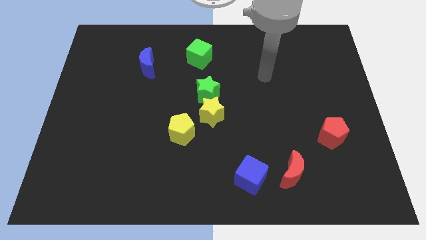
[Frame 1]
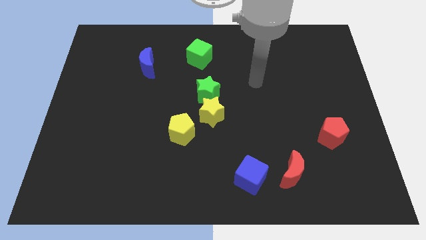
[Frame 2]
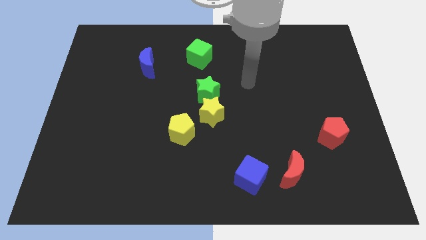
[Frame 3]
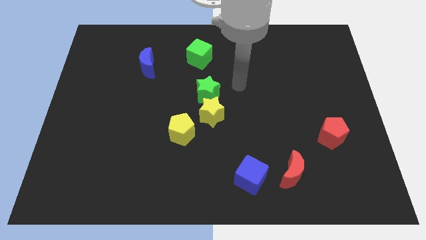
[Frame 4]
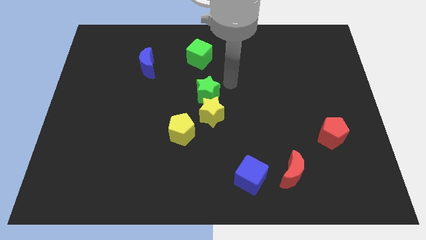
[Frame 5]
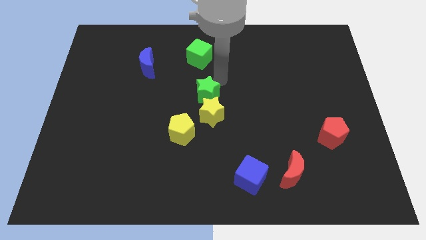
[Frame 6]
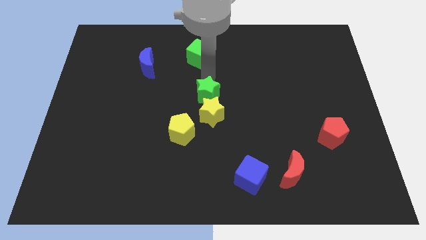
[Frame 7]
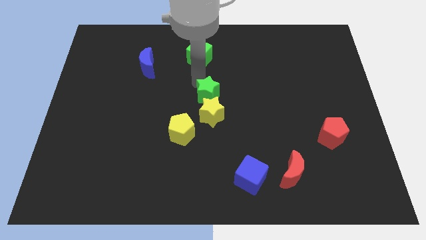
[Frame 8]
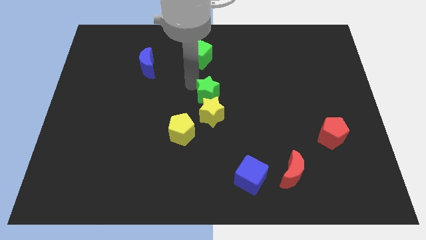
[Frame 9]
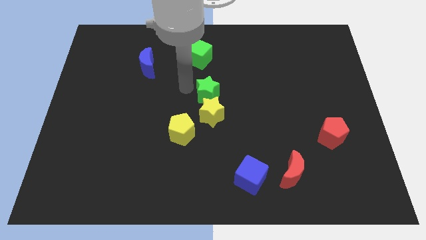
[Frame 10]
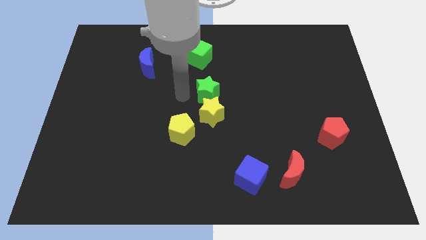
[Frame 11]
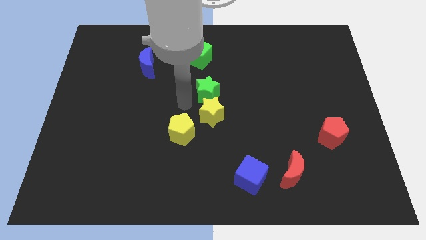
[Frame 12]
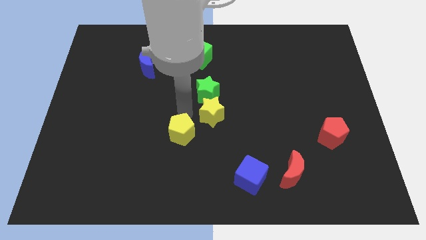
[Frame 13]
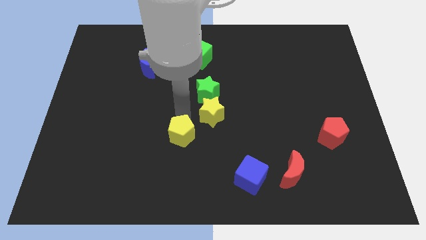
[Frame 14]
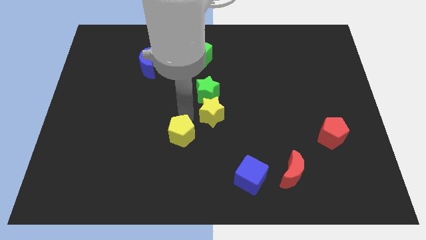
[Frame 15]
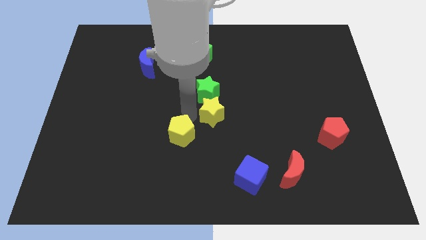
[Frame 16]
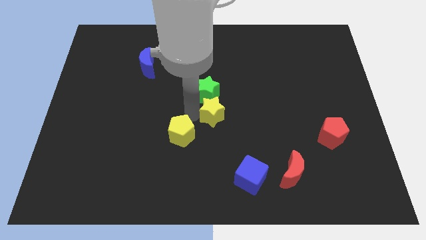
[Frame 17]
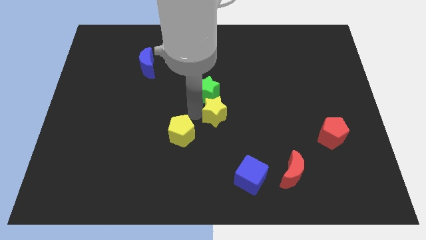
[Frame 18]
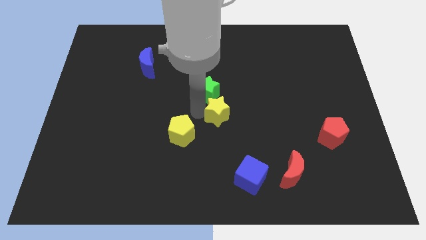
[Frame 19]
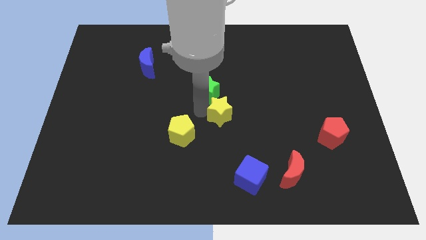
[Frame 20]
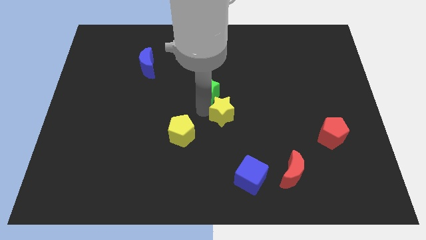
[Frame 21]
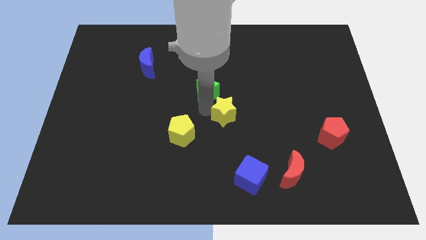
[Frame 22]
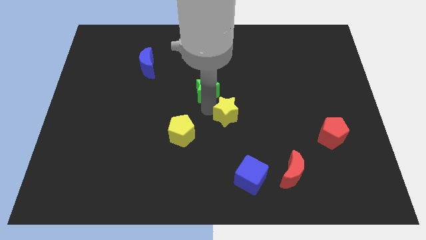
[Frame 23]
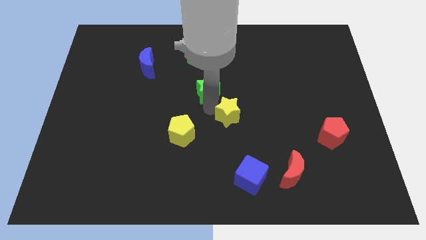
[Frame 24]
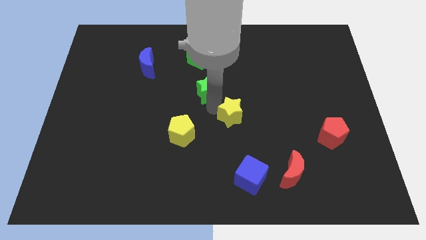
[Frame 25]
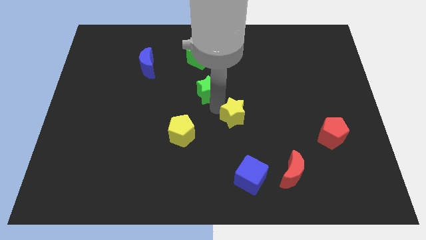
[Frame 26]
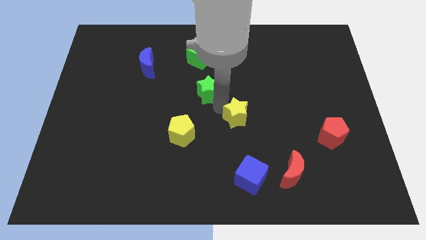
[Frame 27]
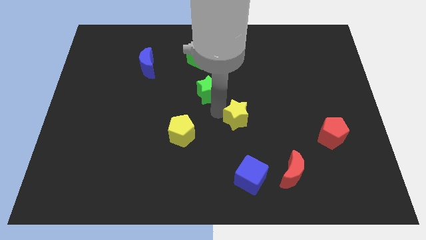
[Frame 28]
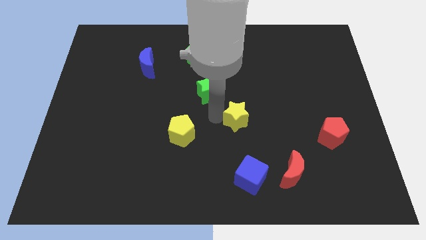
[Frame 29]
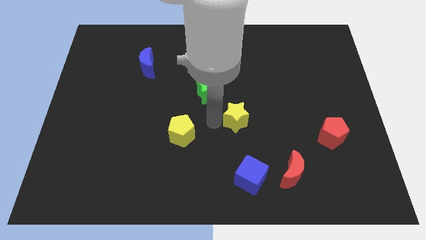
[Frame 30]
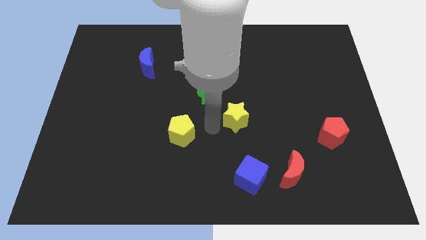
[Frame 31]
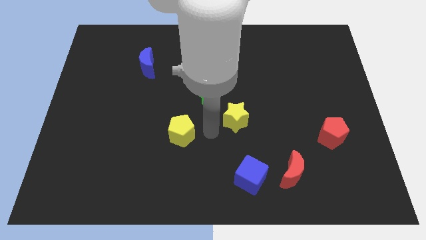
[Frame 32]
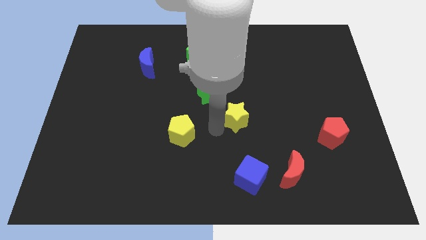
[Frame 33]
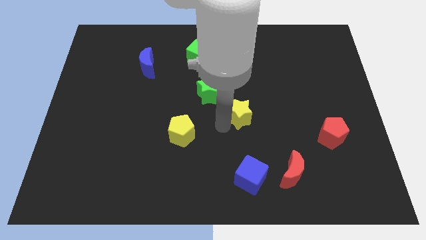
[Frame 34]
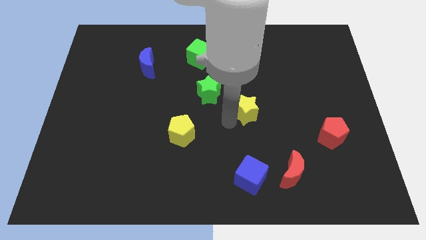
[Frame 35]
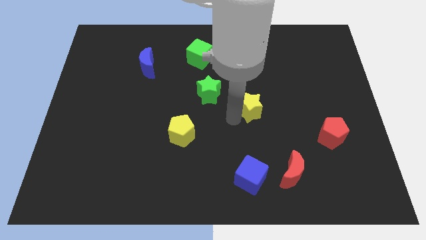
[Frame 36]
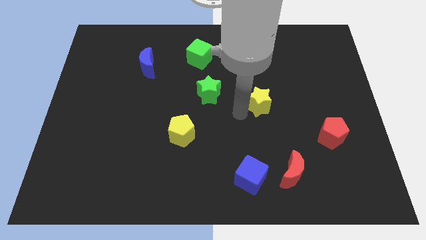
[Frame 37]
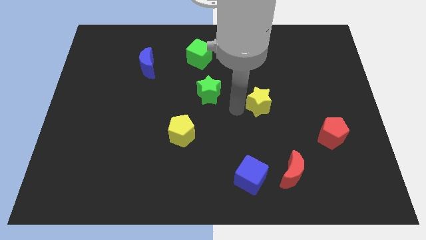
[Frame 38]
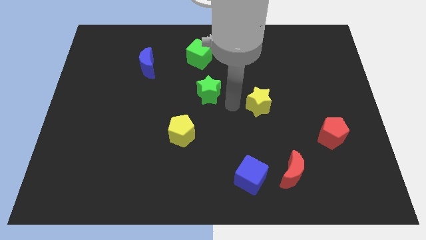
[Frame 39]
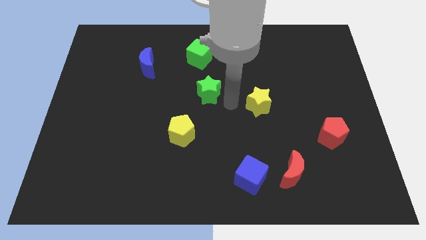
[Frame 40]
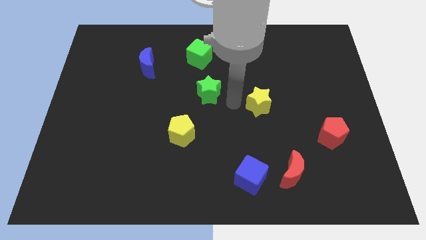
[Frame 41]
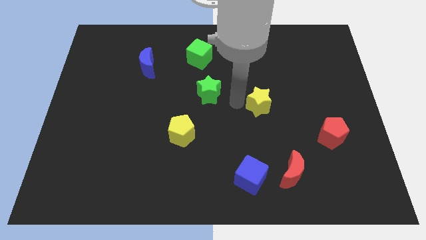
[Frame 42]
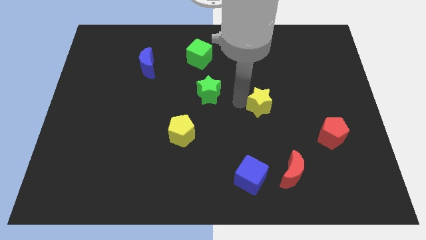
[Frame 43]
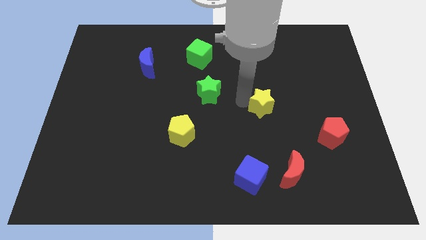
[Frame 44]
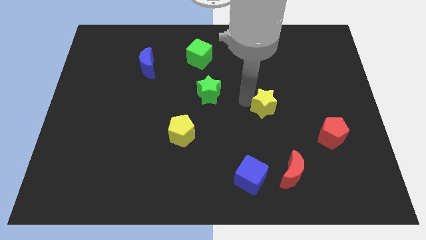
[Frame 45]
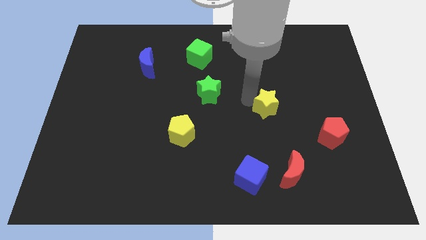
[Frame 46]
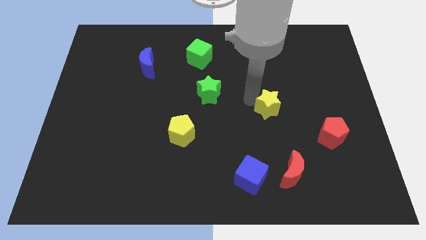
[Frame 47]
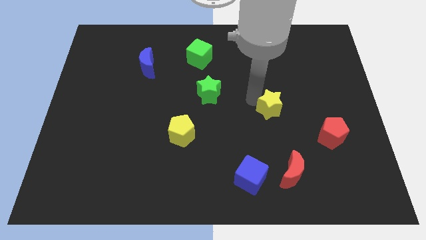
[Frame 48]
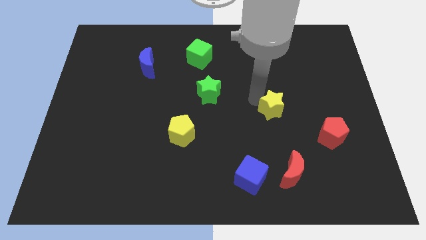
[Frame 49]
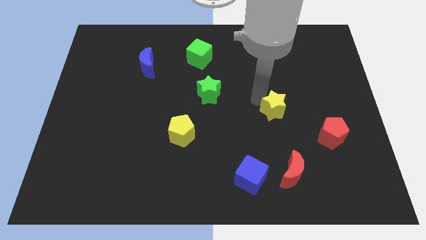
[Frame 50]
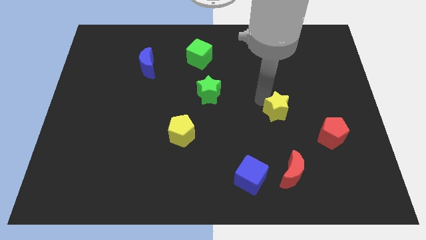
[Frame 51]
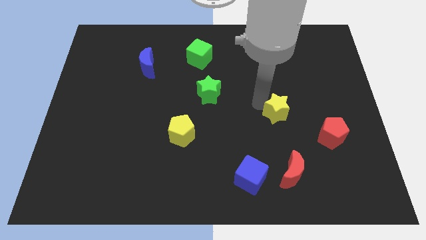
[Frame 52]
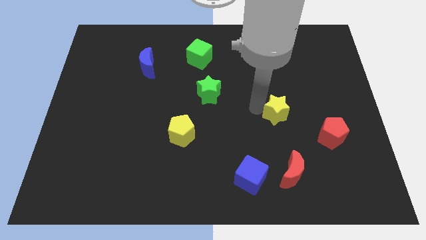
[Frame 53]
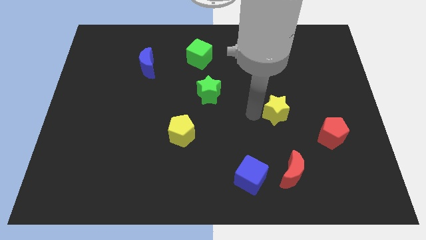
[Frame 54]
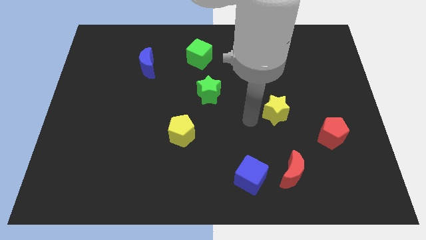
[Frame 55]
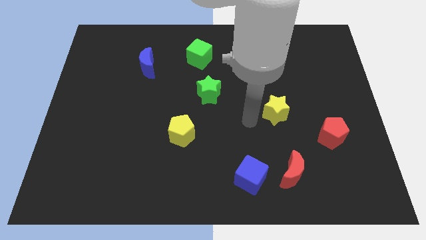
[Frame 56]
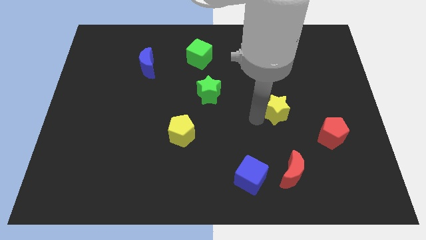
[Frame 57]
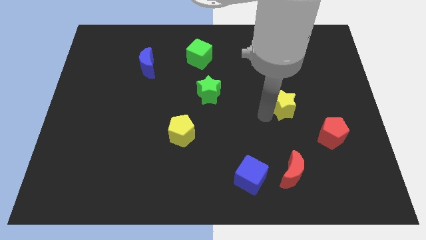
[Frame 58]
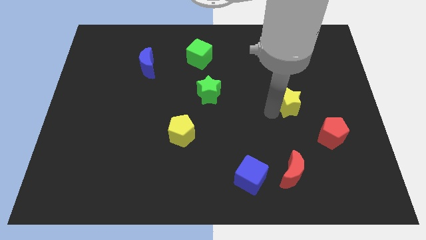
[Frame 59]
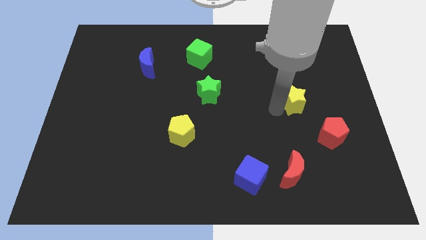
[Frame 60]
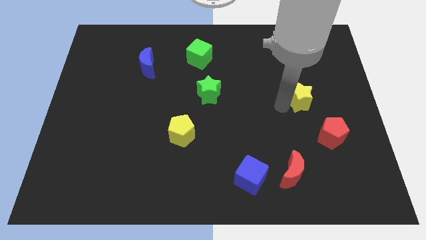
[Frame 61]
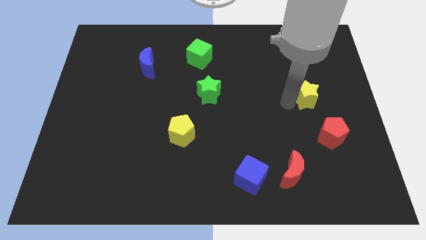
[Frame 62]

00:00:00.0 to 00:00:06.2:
put the yellow star to the top of the red pentagon

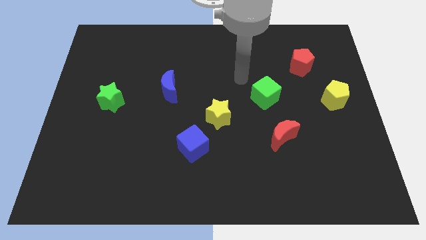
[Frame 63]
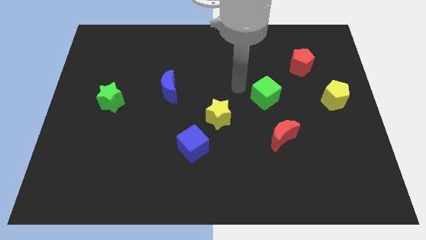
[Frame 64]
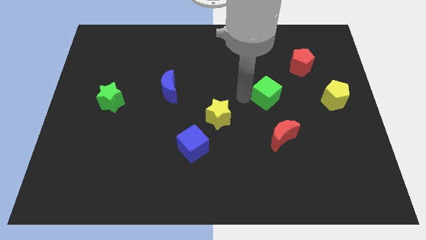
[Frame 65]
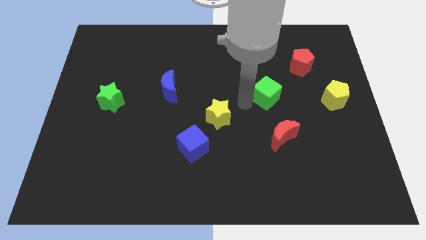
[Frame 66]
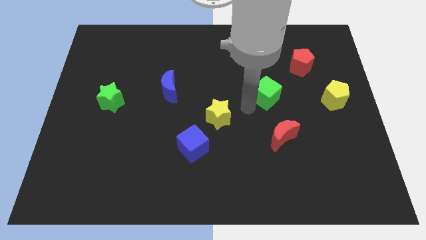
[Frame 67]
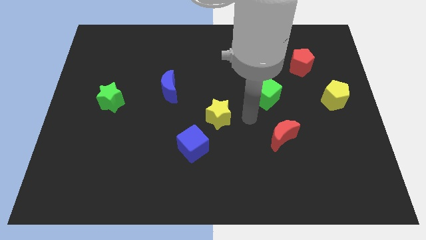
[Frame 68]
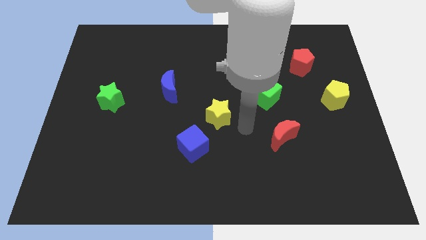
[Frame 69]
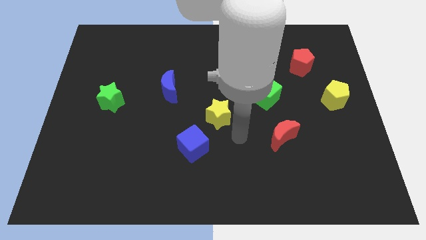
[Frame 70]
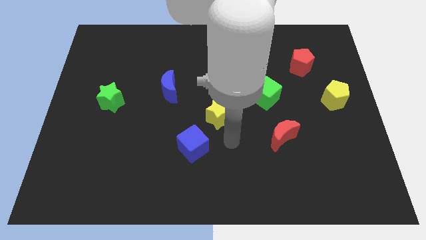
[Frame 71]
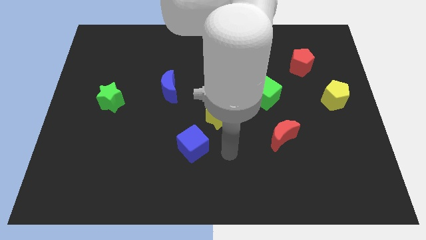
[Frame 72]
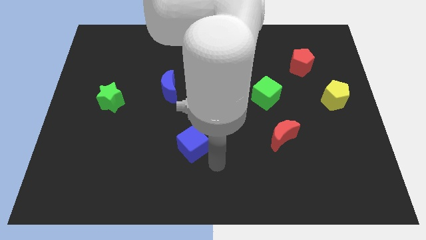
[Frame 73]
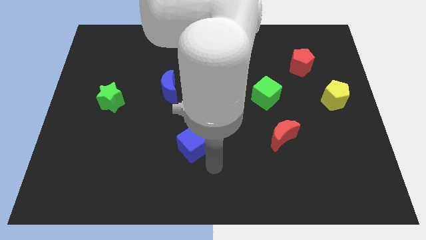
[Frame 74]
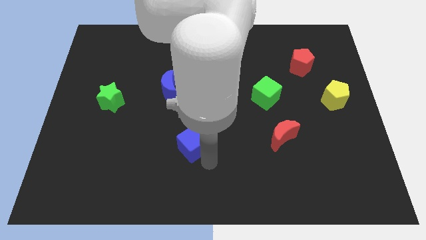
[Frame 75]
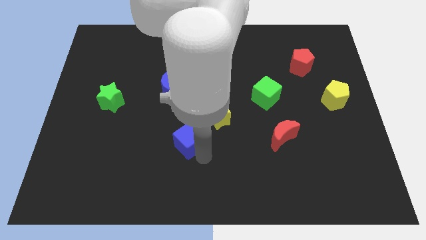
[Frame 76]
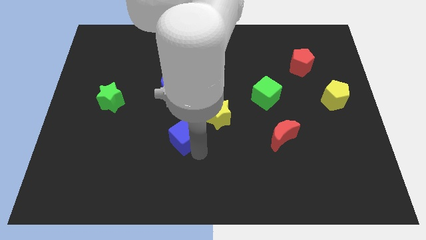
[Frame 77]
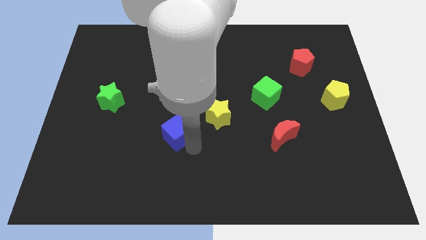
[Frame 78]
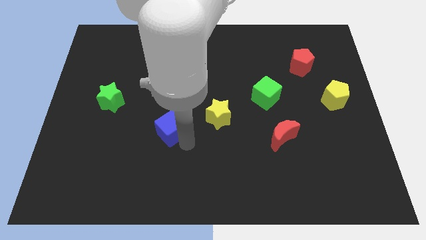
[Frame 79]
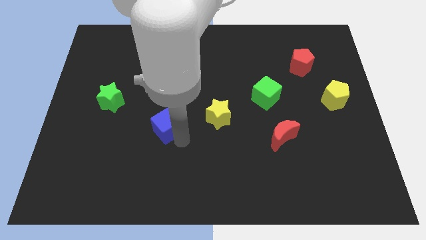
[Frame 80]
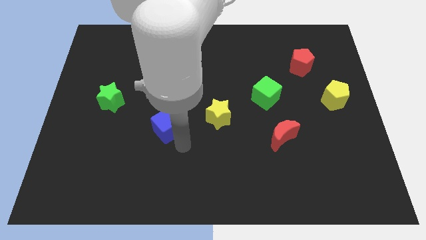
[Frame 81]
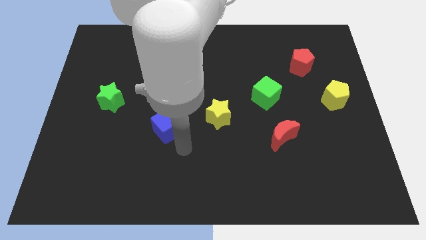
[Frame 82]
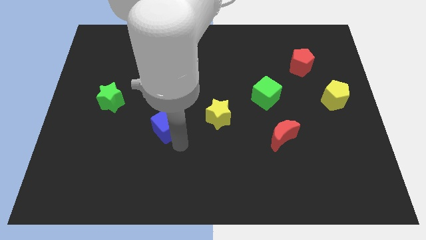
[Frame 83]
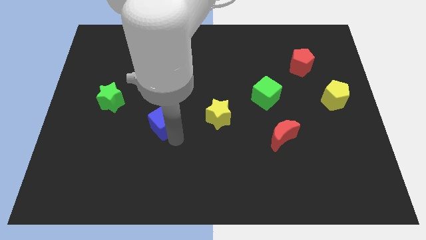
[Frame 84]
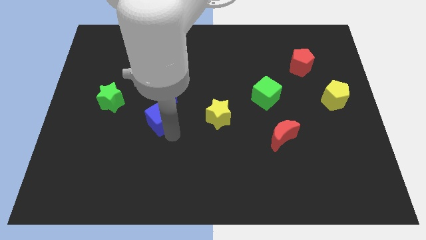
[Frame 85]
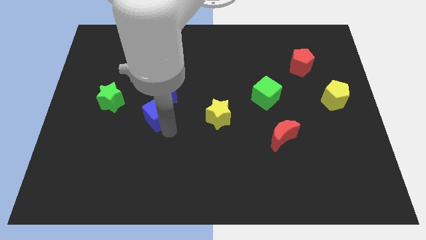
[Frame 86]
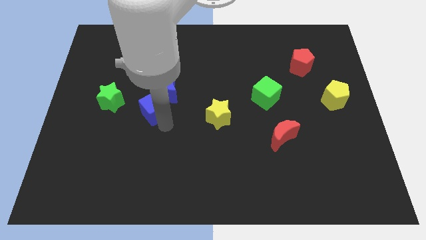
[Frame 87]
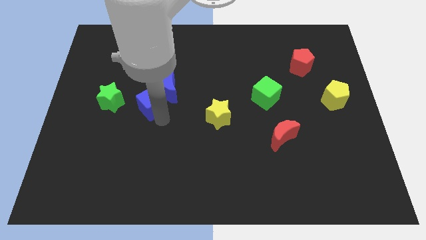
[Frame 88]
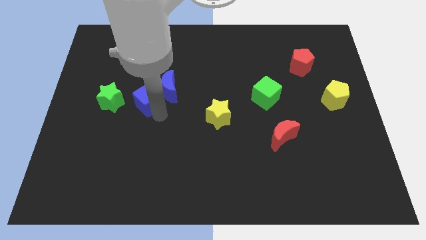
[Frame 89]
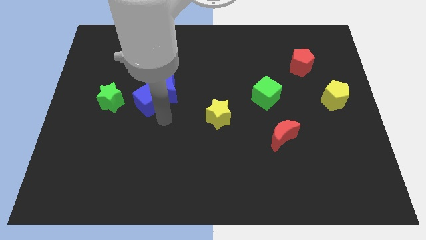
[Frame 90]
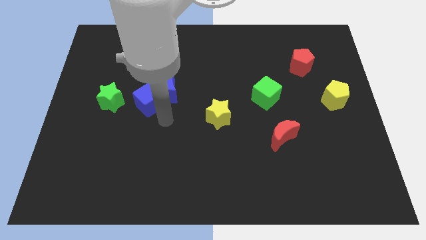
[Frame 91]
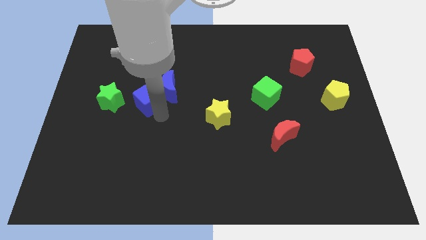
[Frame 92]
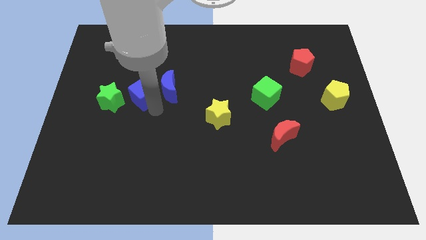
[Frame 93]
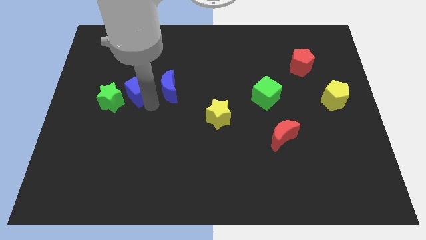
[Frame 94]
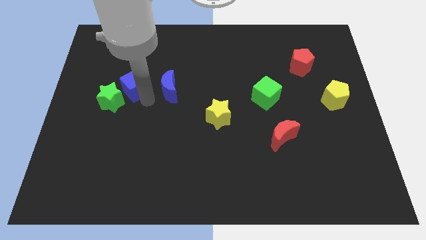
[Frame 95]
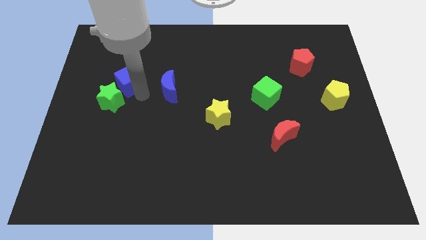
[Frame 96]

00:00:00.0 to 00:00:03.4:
slide the blue cube to the top side of the green star
